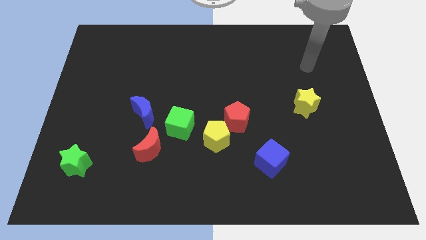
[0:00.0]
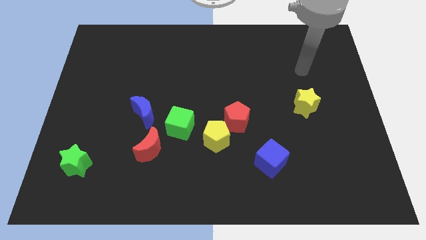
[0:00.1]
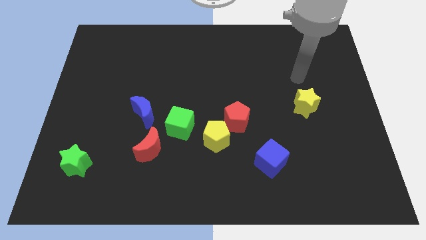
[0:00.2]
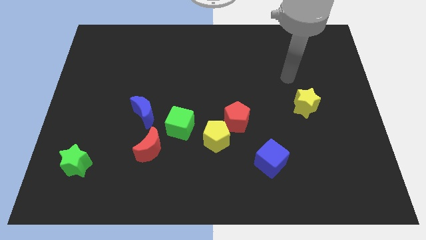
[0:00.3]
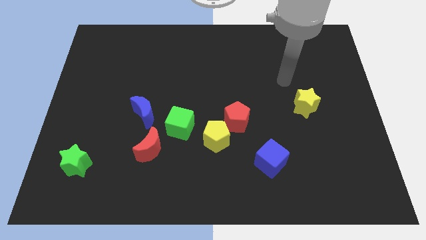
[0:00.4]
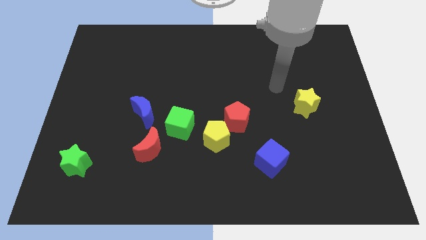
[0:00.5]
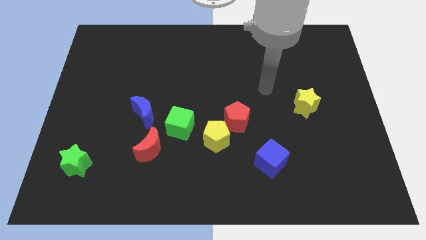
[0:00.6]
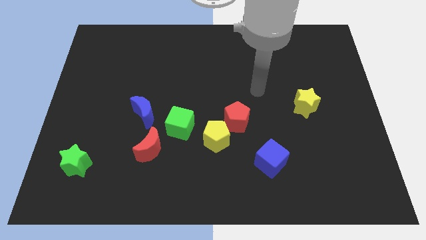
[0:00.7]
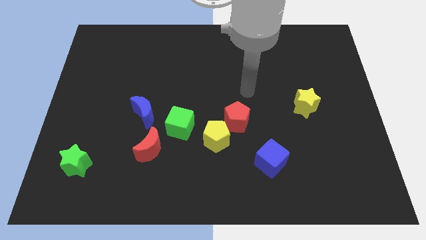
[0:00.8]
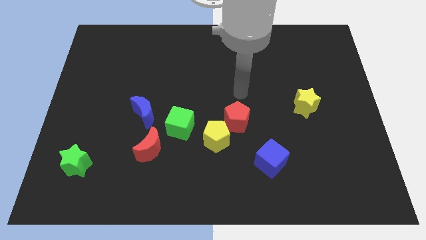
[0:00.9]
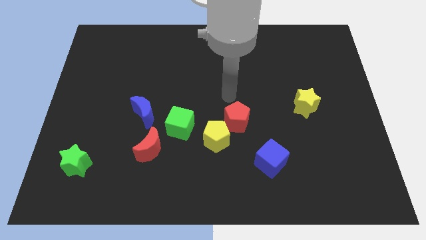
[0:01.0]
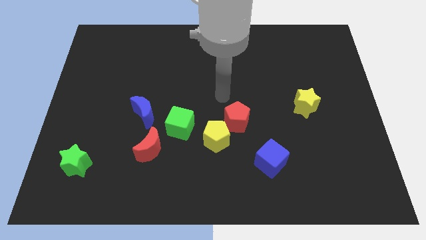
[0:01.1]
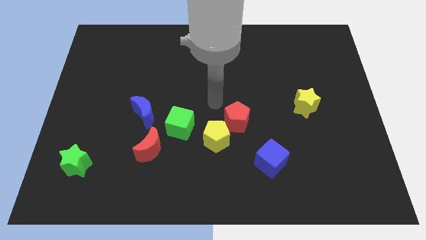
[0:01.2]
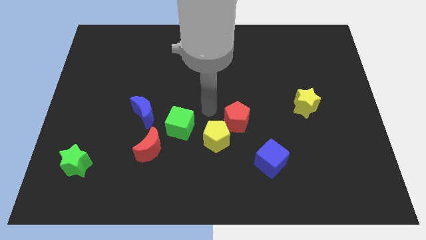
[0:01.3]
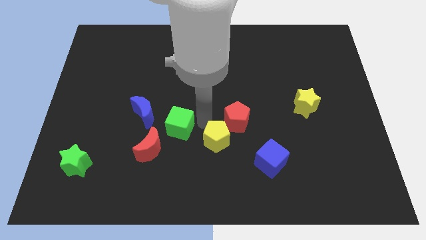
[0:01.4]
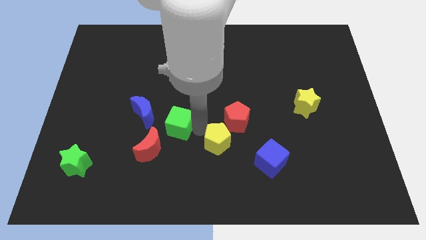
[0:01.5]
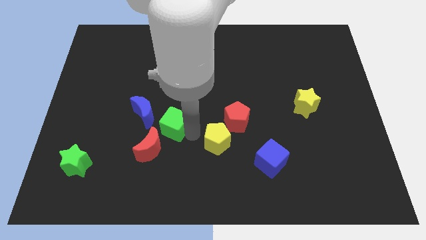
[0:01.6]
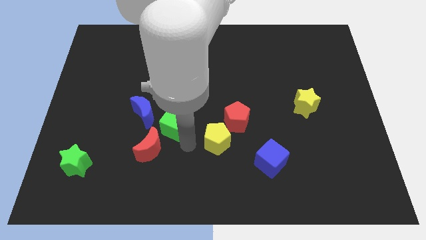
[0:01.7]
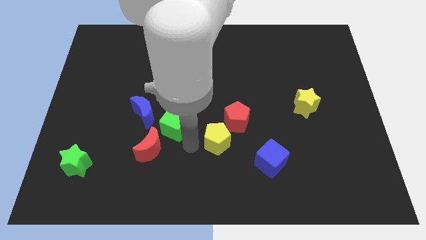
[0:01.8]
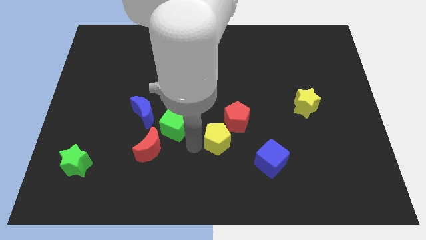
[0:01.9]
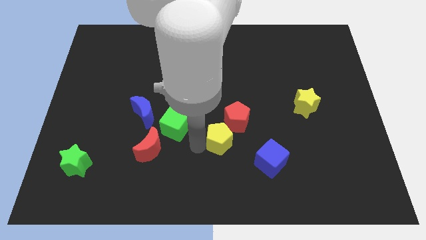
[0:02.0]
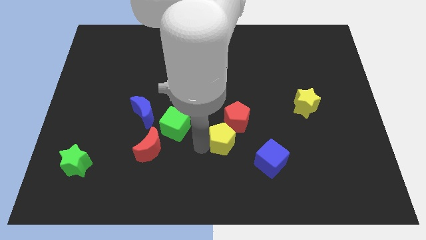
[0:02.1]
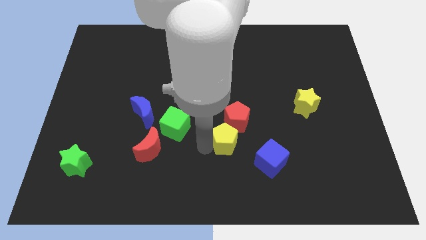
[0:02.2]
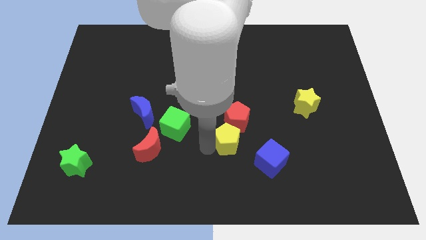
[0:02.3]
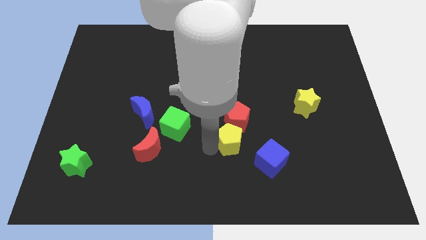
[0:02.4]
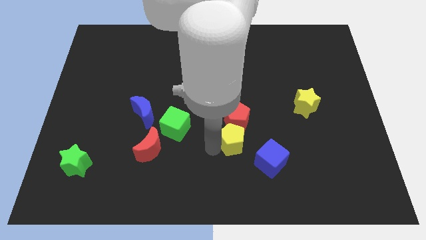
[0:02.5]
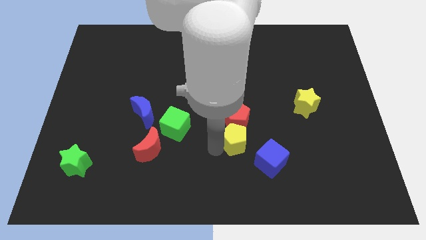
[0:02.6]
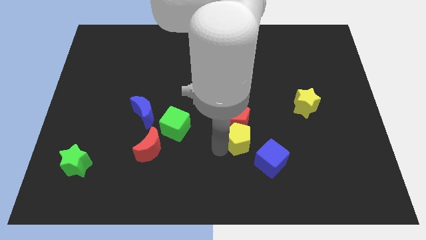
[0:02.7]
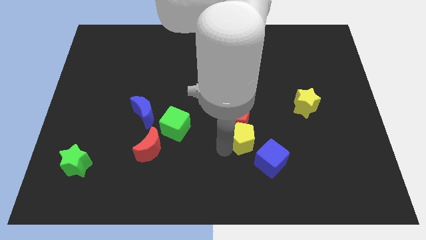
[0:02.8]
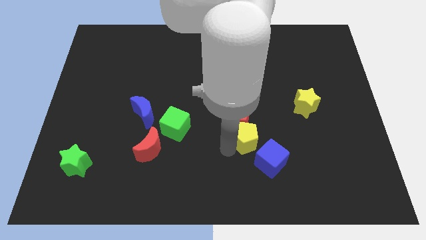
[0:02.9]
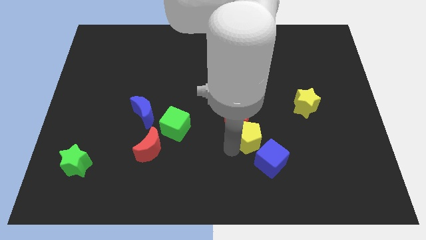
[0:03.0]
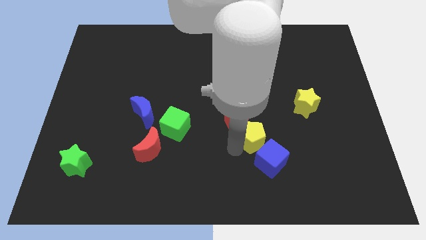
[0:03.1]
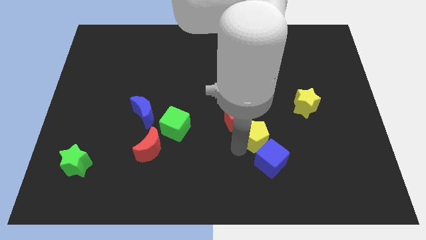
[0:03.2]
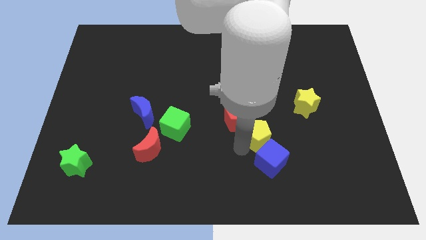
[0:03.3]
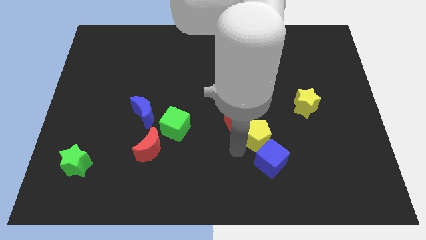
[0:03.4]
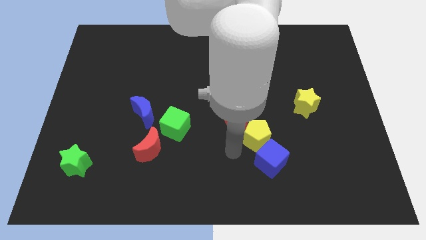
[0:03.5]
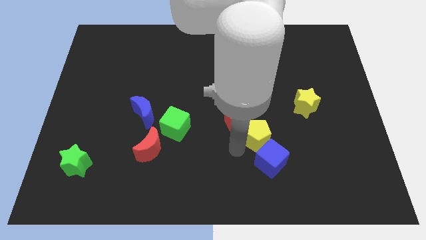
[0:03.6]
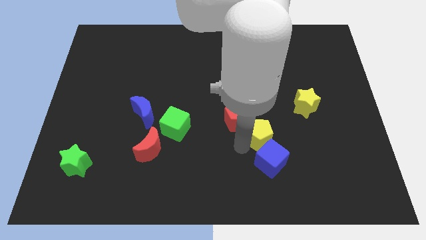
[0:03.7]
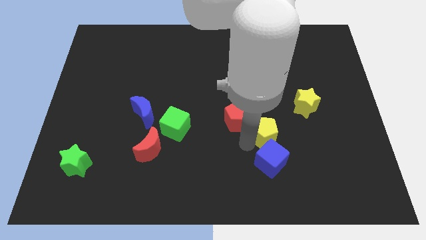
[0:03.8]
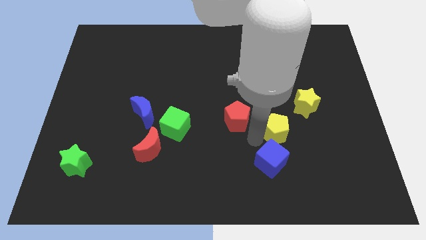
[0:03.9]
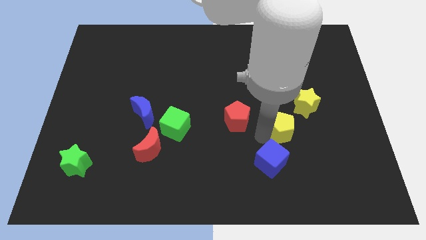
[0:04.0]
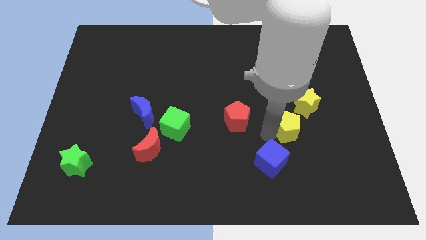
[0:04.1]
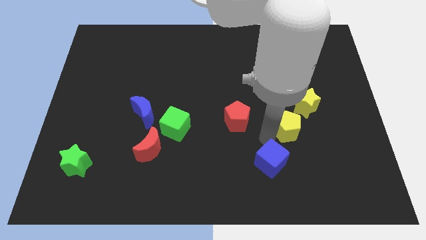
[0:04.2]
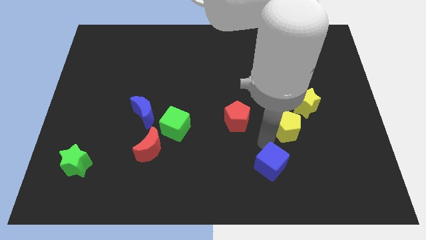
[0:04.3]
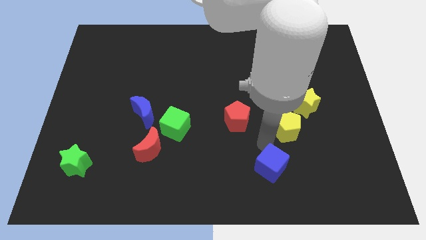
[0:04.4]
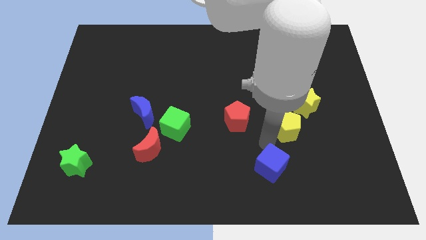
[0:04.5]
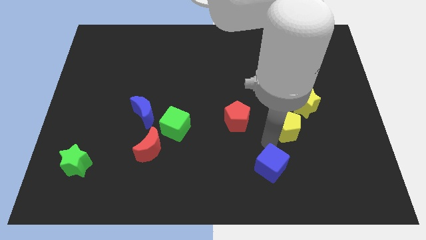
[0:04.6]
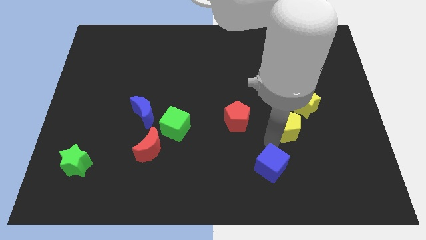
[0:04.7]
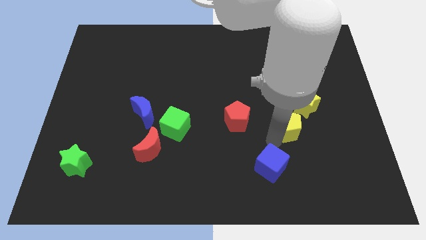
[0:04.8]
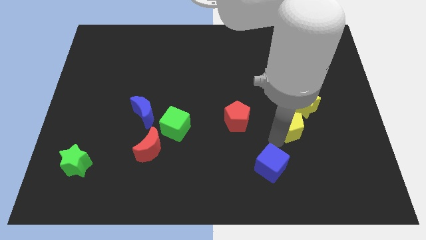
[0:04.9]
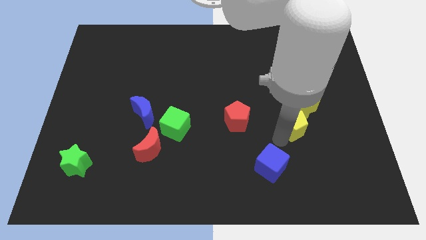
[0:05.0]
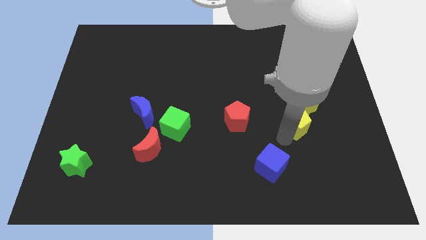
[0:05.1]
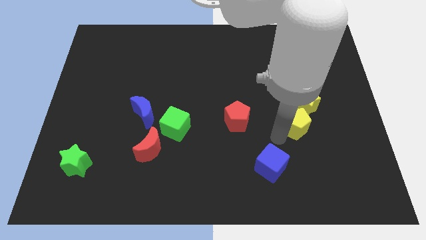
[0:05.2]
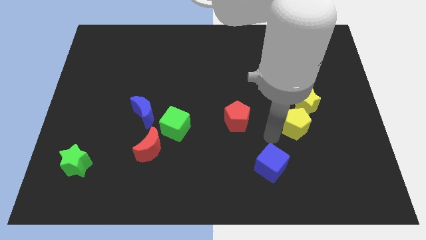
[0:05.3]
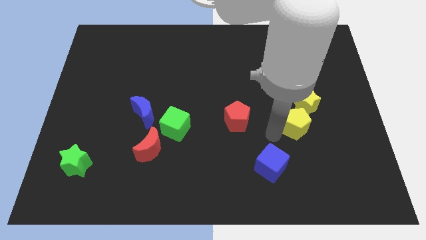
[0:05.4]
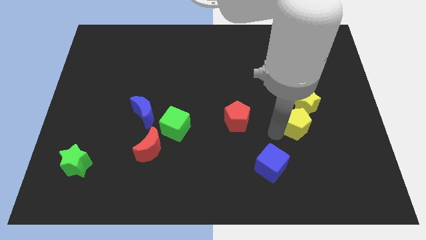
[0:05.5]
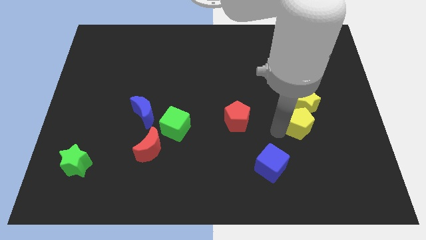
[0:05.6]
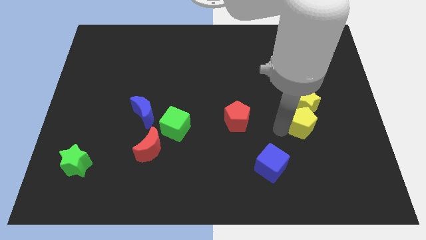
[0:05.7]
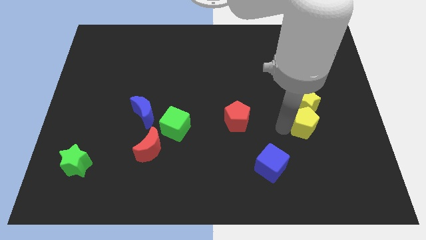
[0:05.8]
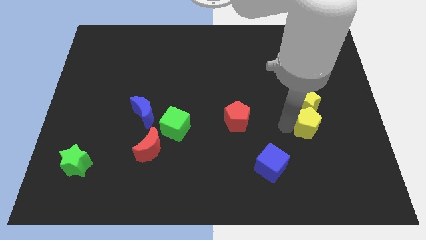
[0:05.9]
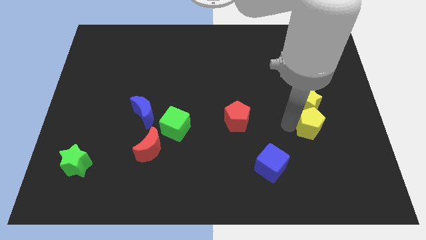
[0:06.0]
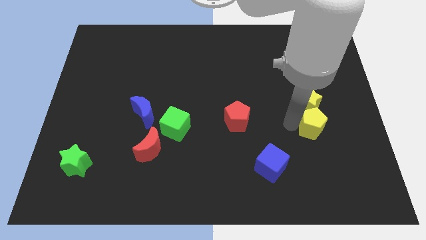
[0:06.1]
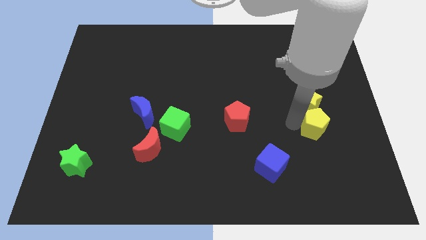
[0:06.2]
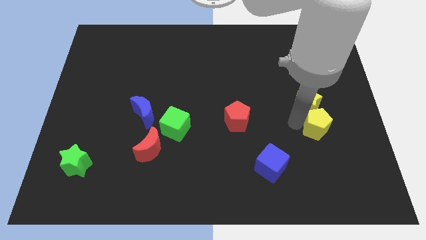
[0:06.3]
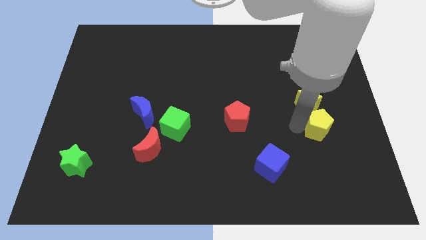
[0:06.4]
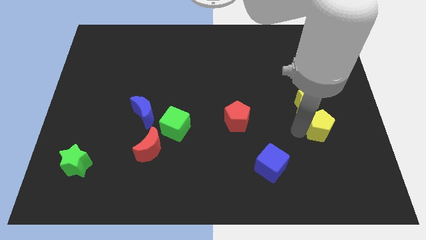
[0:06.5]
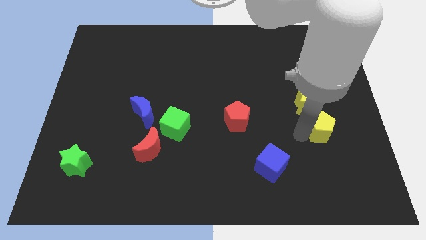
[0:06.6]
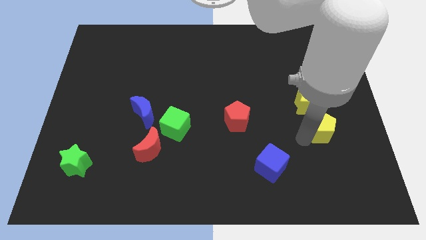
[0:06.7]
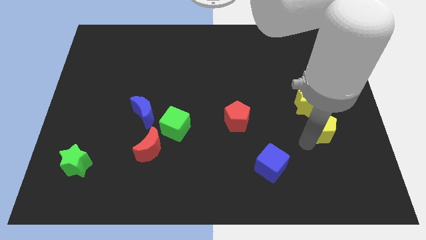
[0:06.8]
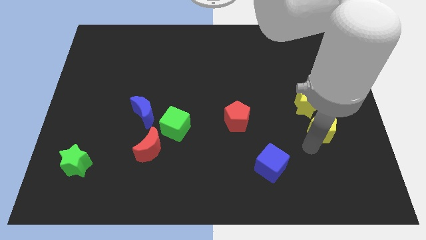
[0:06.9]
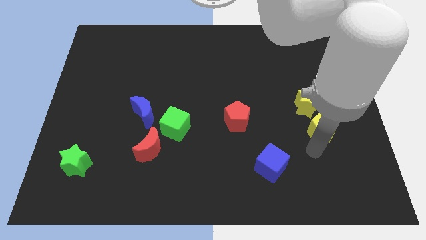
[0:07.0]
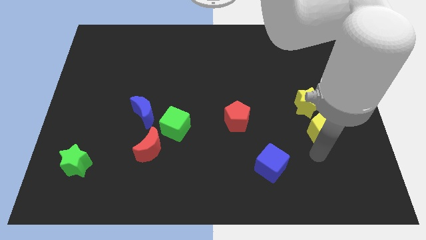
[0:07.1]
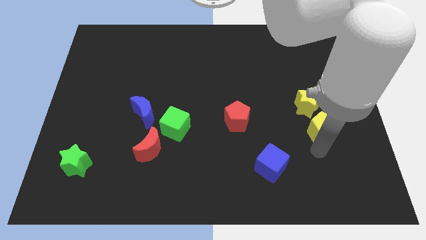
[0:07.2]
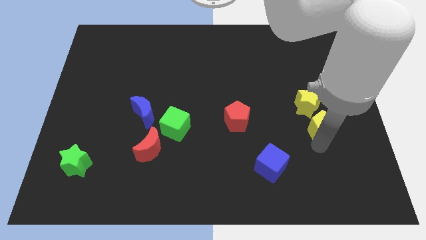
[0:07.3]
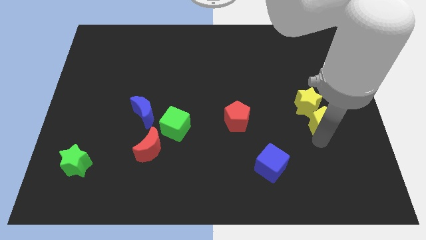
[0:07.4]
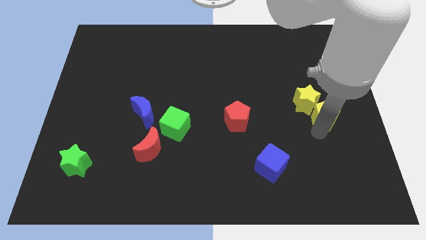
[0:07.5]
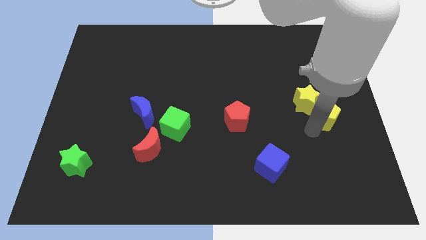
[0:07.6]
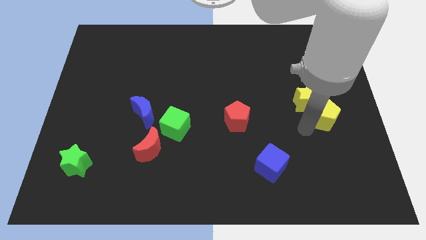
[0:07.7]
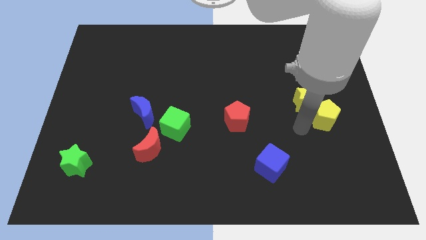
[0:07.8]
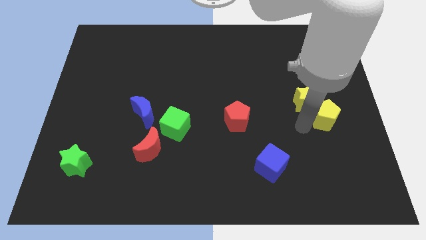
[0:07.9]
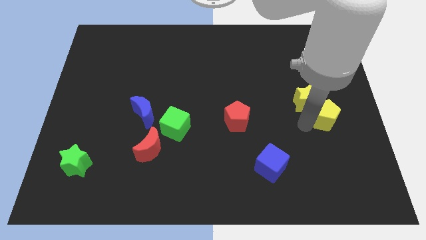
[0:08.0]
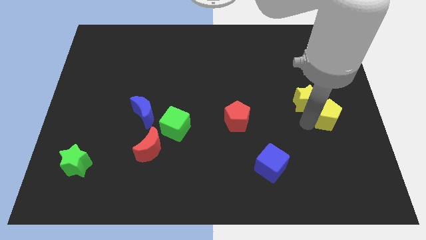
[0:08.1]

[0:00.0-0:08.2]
put the yellow pentagon to the right side
